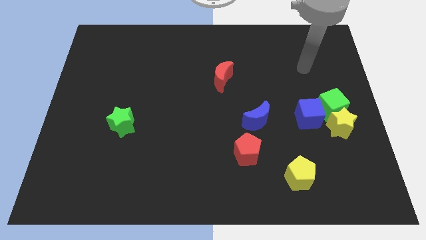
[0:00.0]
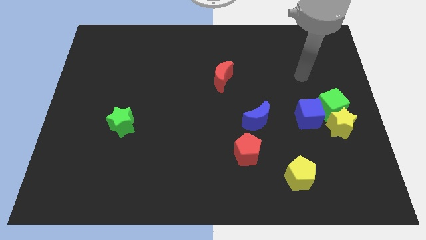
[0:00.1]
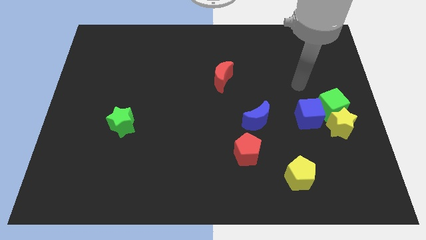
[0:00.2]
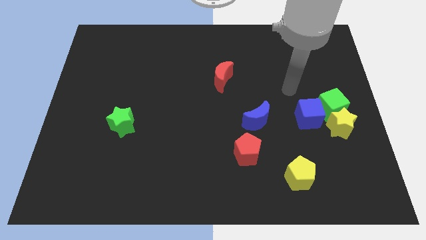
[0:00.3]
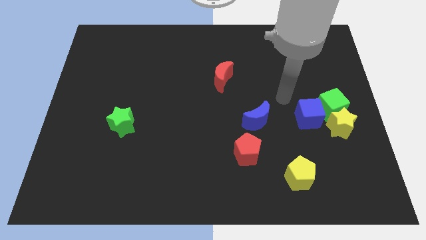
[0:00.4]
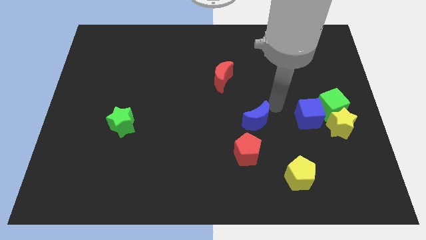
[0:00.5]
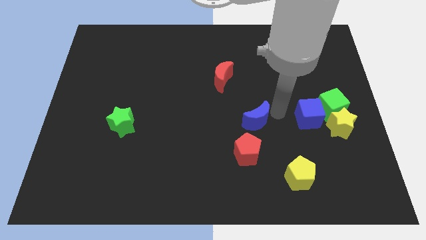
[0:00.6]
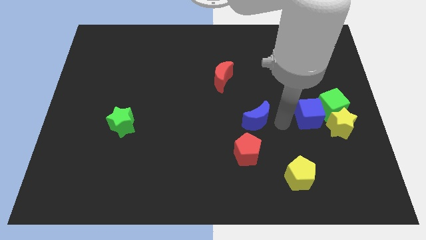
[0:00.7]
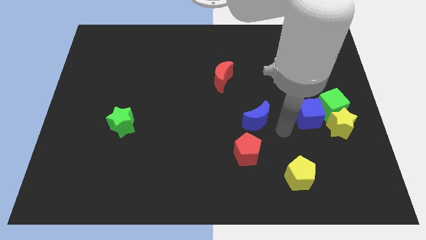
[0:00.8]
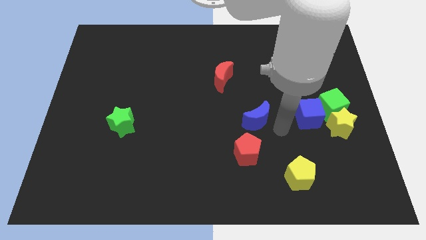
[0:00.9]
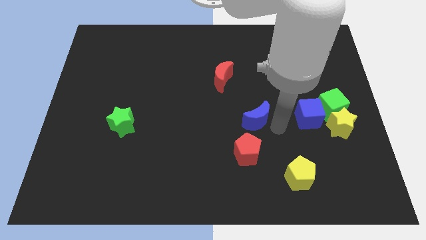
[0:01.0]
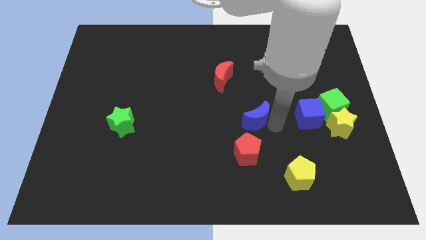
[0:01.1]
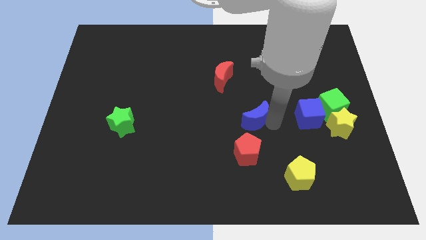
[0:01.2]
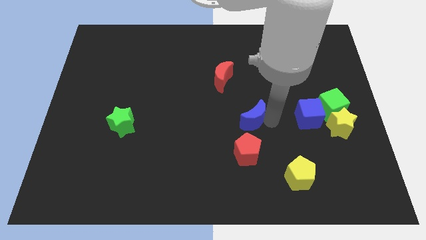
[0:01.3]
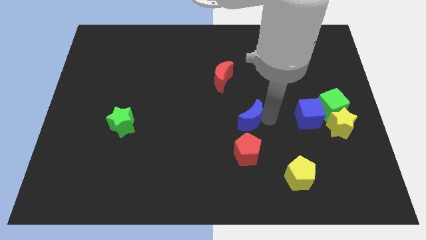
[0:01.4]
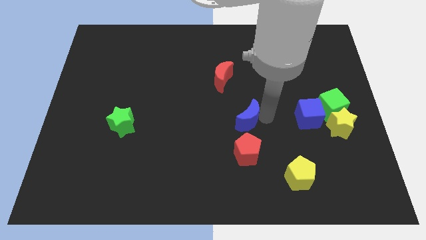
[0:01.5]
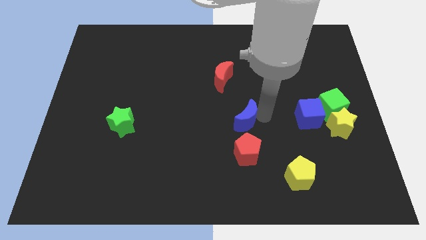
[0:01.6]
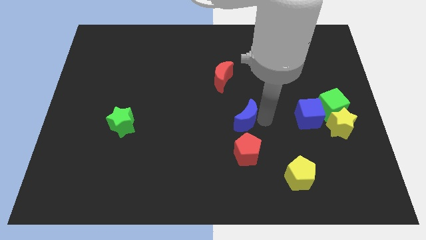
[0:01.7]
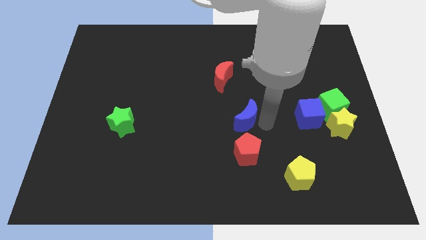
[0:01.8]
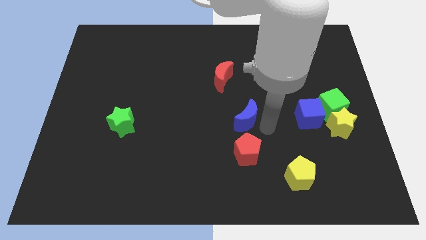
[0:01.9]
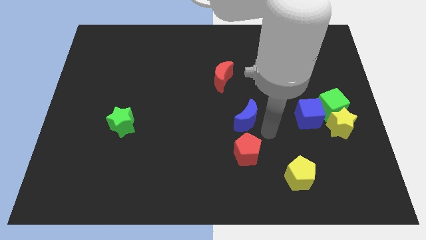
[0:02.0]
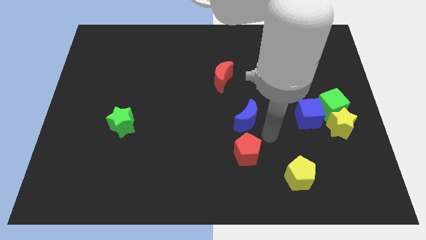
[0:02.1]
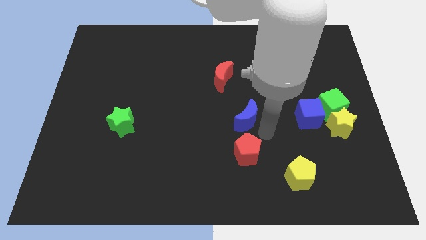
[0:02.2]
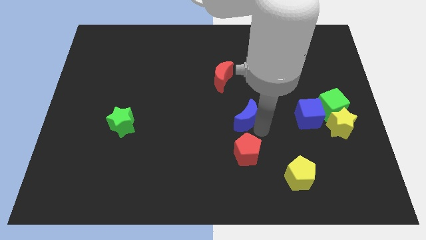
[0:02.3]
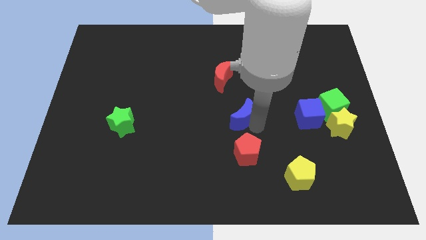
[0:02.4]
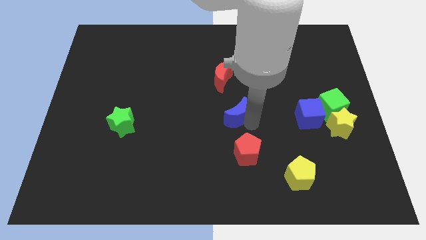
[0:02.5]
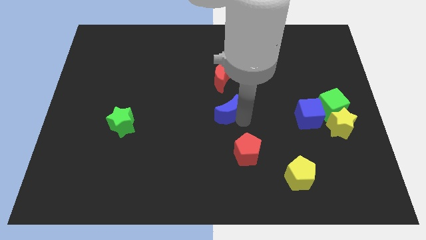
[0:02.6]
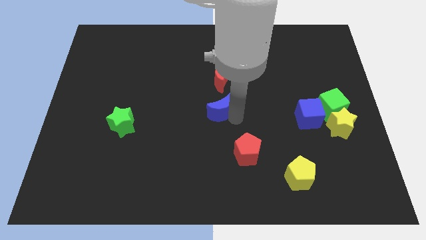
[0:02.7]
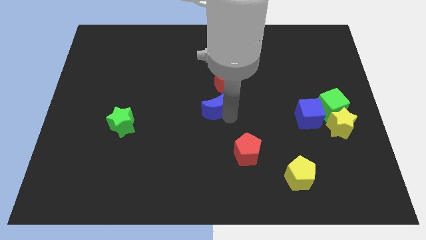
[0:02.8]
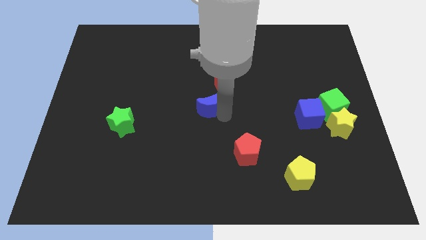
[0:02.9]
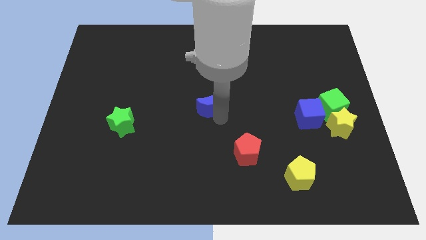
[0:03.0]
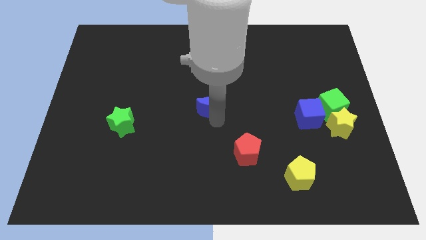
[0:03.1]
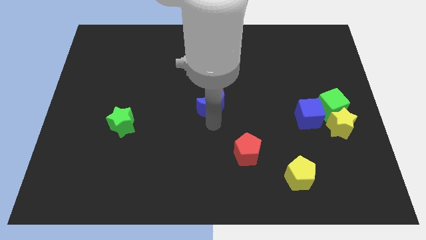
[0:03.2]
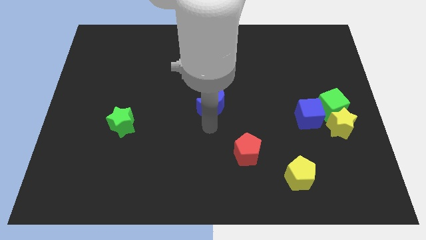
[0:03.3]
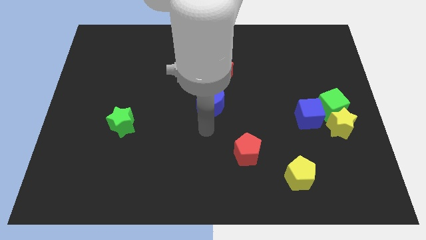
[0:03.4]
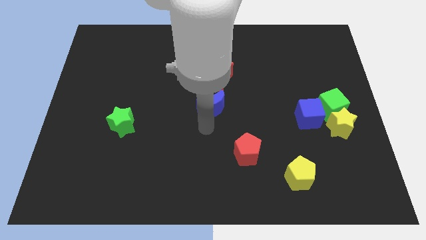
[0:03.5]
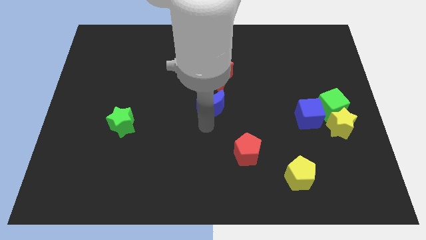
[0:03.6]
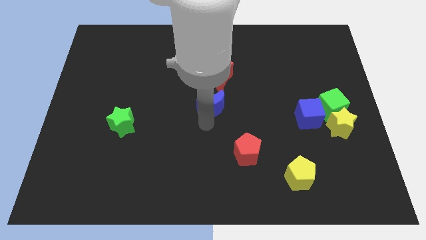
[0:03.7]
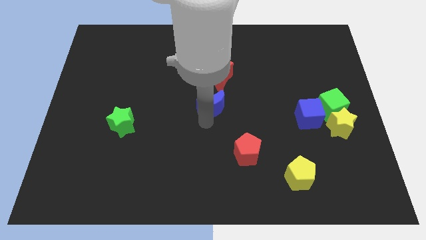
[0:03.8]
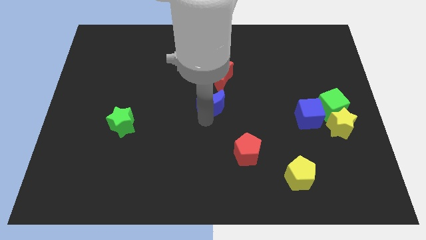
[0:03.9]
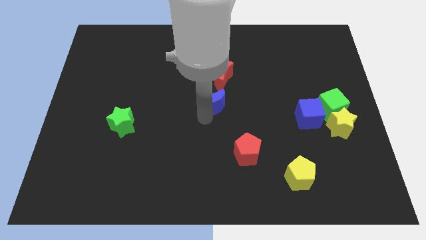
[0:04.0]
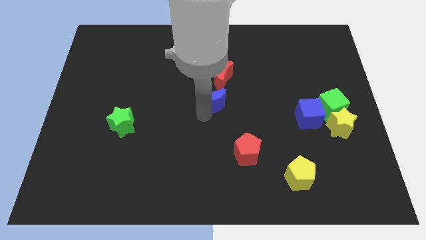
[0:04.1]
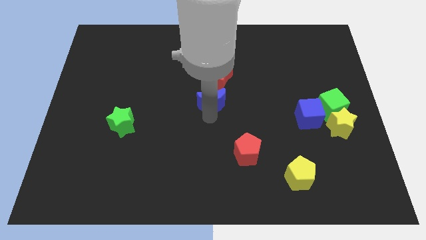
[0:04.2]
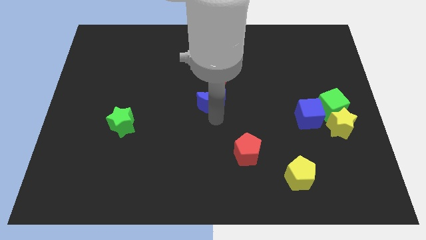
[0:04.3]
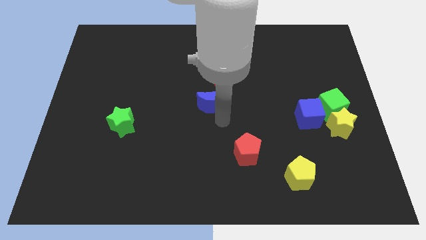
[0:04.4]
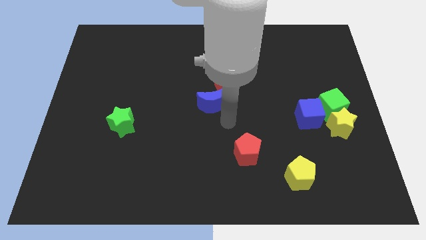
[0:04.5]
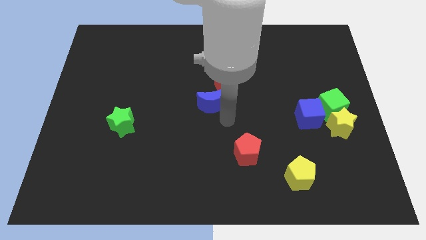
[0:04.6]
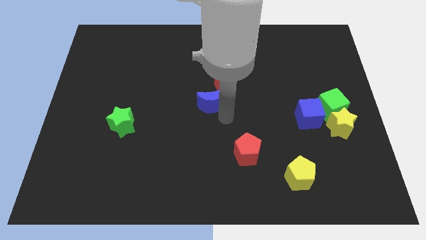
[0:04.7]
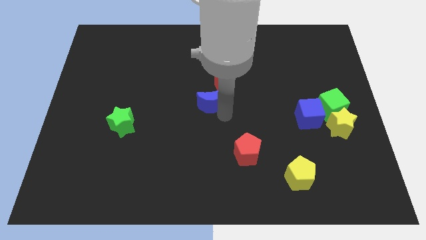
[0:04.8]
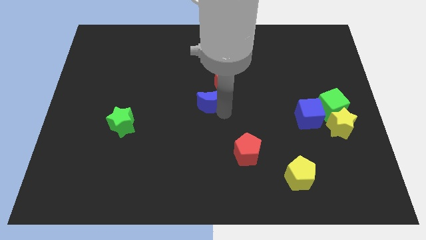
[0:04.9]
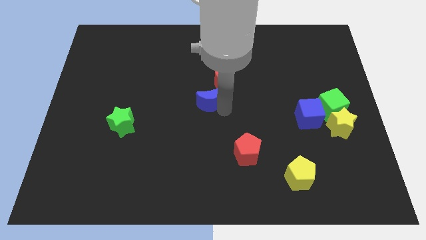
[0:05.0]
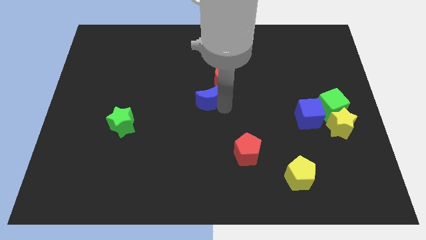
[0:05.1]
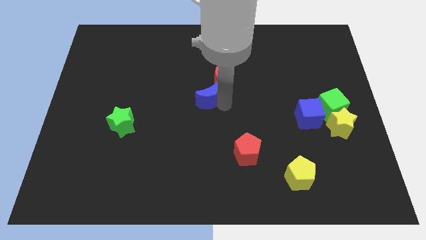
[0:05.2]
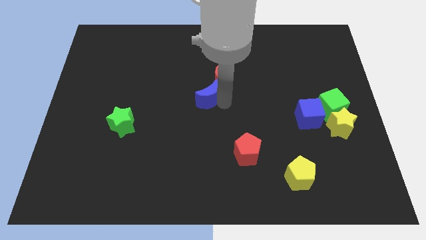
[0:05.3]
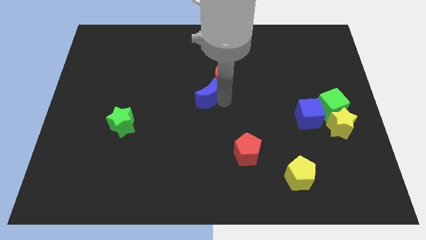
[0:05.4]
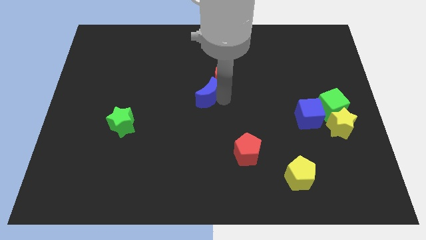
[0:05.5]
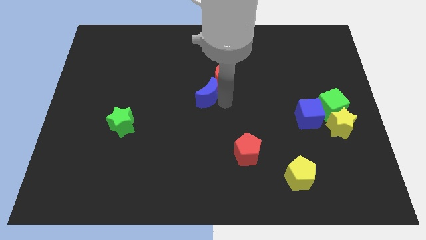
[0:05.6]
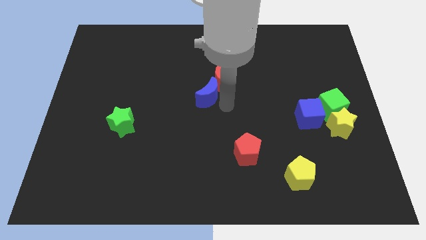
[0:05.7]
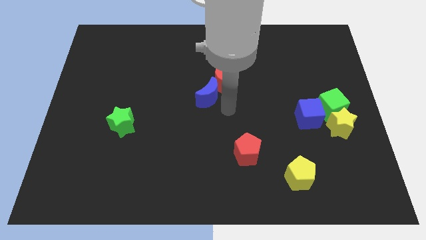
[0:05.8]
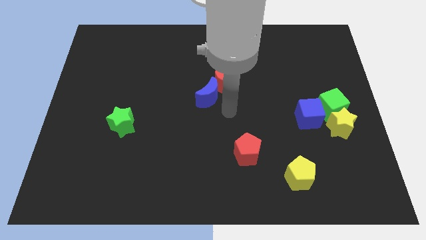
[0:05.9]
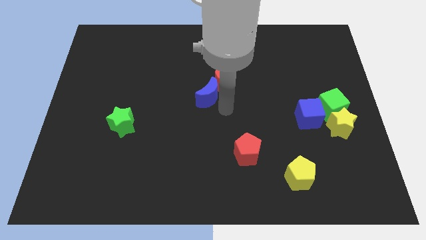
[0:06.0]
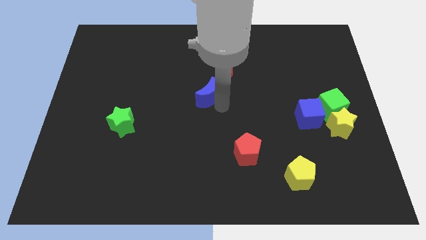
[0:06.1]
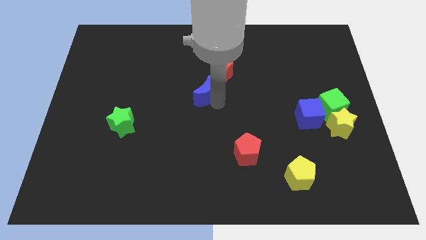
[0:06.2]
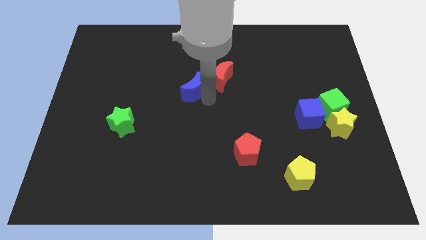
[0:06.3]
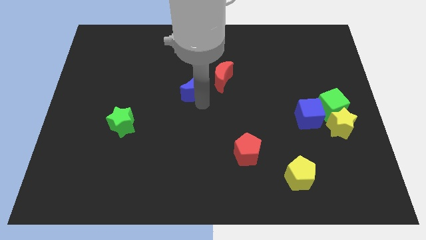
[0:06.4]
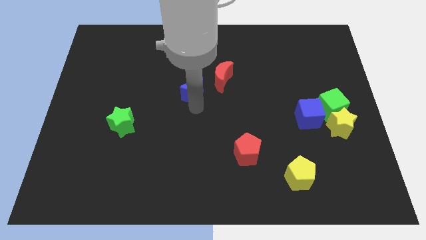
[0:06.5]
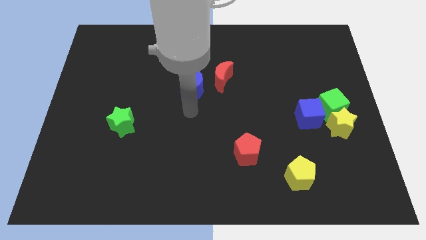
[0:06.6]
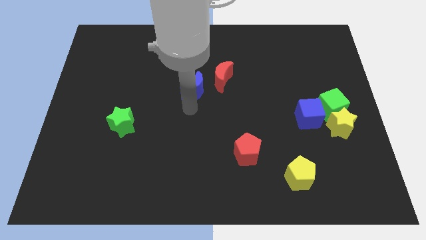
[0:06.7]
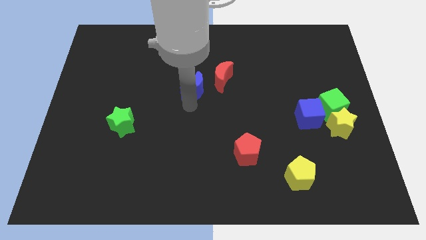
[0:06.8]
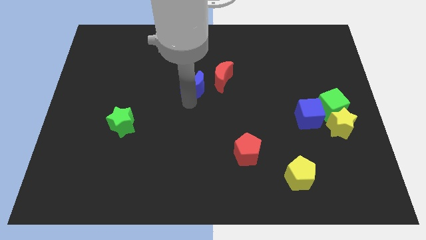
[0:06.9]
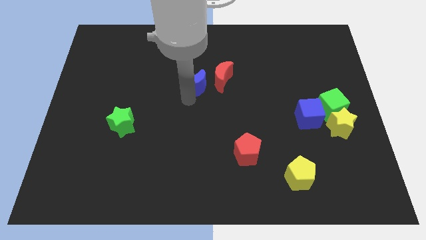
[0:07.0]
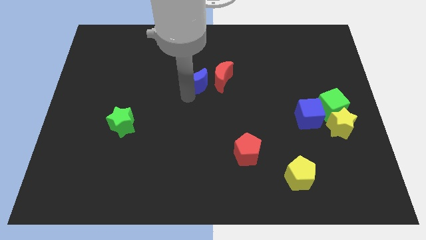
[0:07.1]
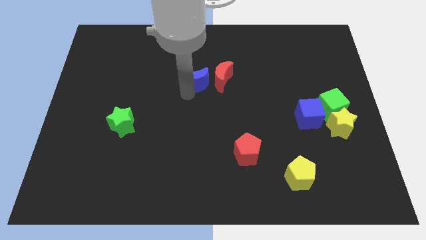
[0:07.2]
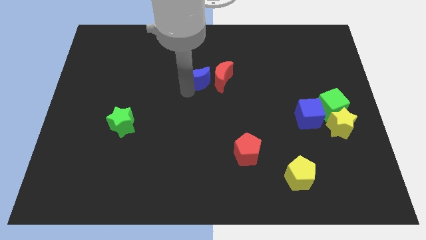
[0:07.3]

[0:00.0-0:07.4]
push the blue moon to the top left of the red moon

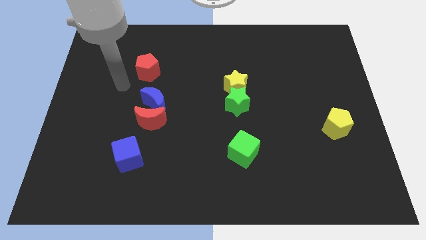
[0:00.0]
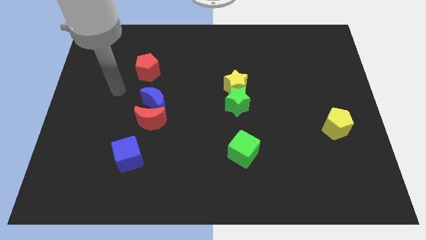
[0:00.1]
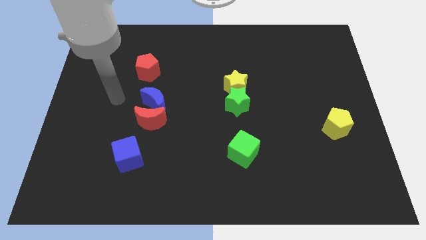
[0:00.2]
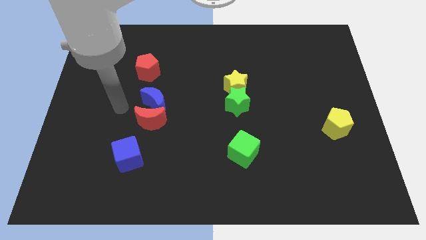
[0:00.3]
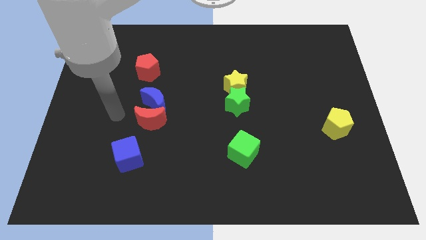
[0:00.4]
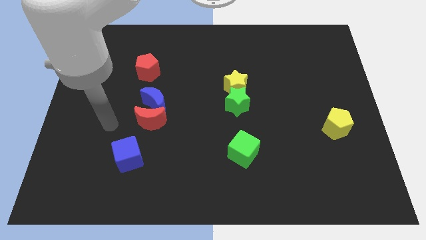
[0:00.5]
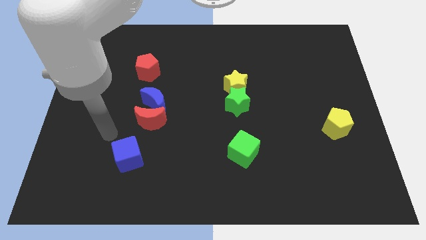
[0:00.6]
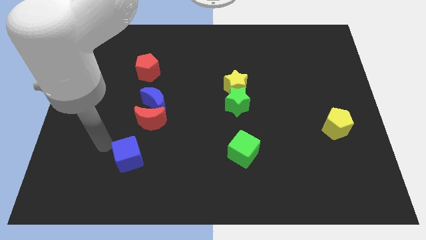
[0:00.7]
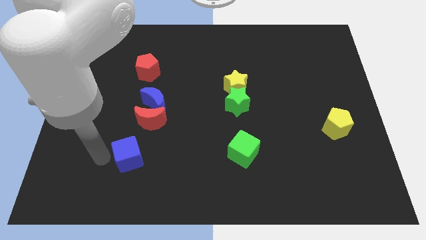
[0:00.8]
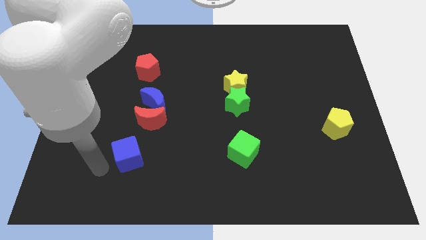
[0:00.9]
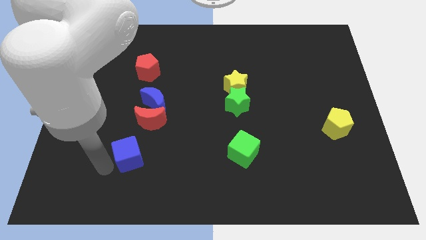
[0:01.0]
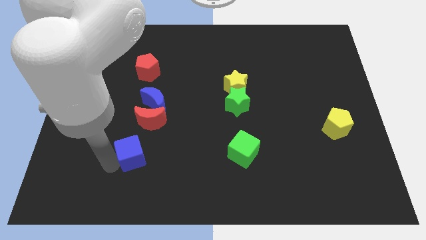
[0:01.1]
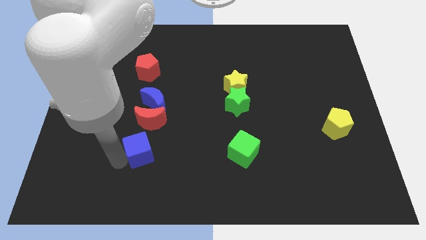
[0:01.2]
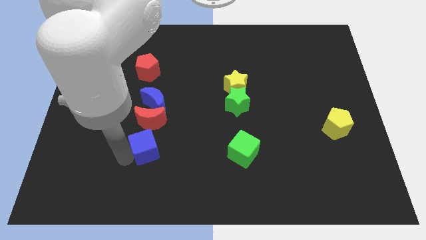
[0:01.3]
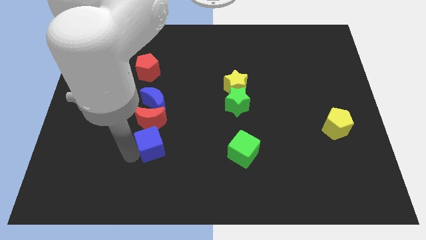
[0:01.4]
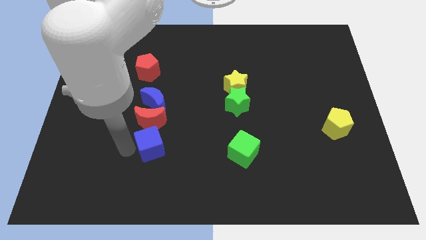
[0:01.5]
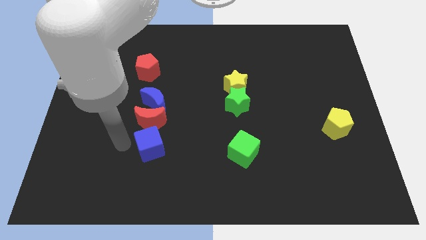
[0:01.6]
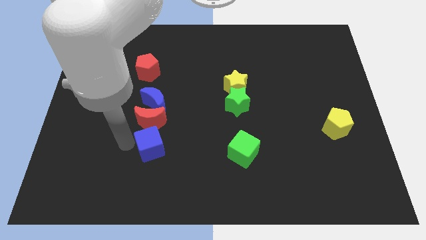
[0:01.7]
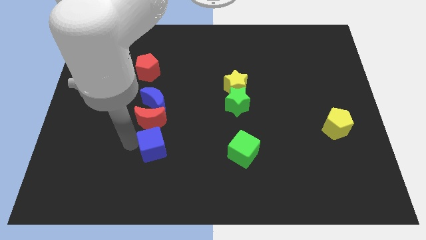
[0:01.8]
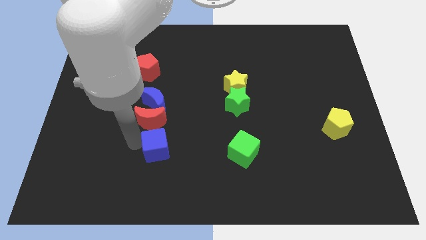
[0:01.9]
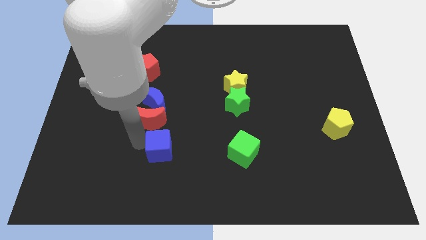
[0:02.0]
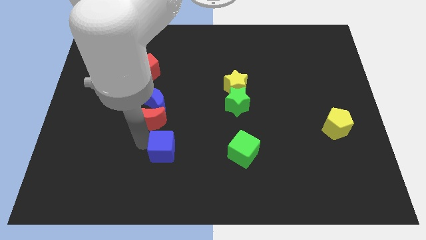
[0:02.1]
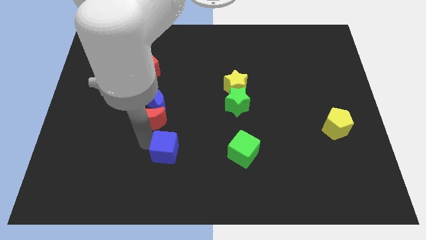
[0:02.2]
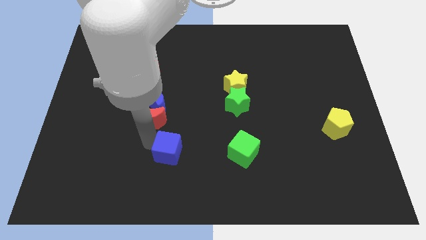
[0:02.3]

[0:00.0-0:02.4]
put the blue cube left of the green cube
